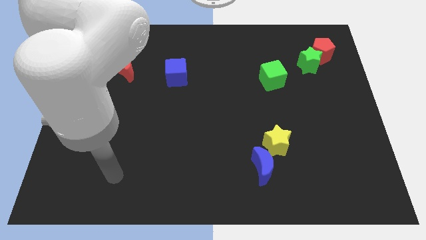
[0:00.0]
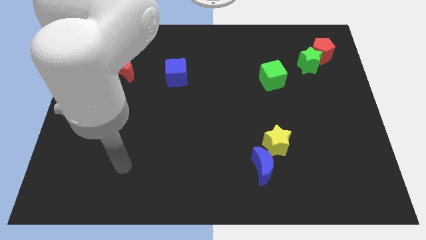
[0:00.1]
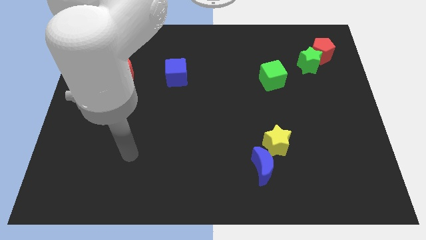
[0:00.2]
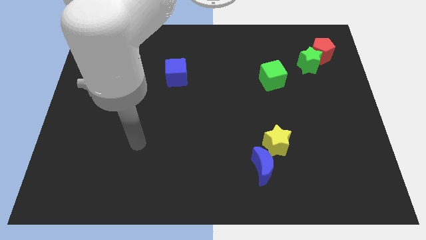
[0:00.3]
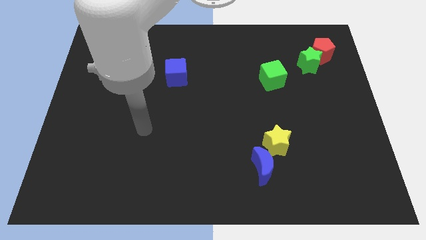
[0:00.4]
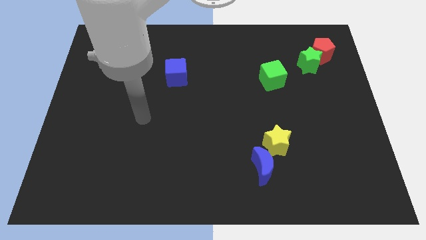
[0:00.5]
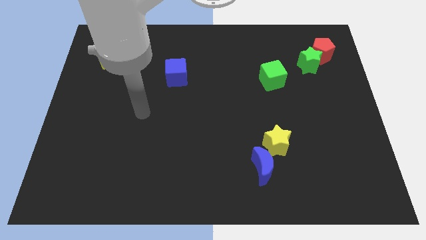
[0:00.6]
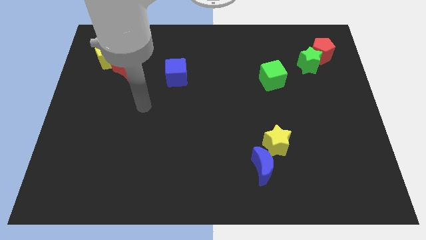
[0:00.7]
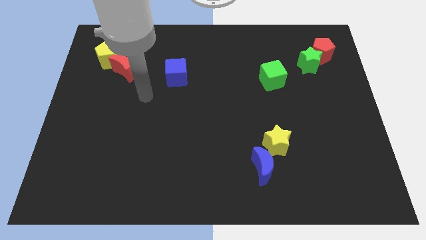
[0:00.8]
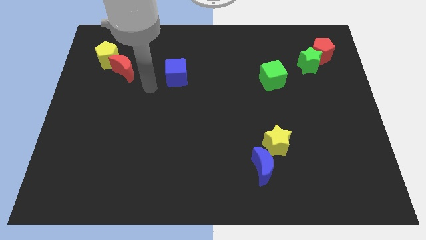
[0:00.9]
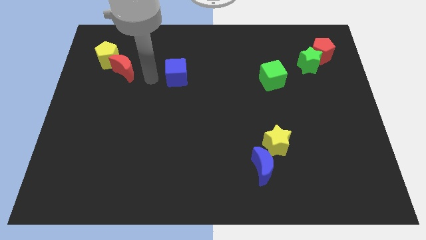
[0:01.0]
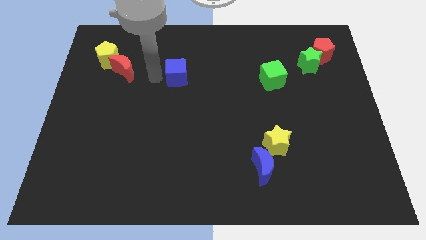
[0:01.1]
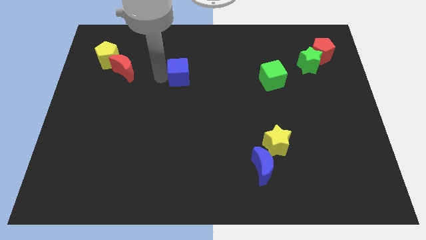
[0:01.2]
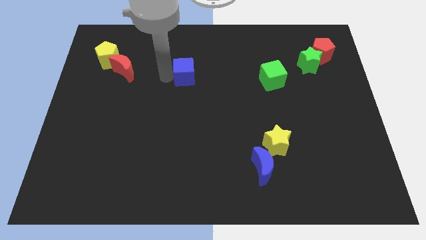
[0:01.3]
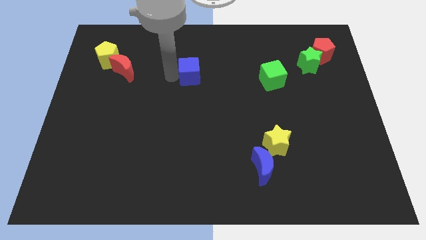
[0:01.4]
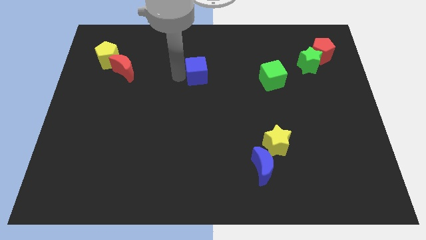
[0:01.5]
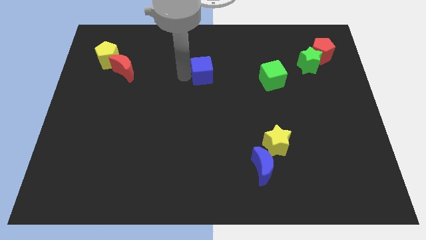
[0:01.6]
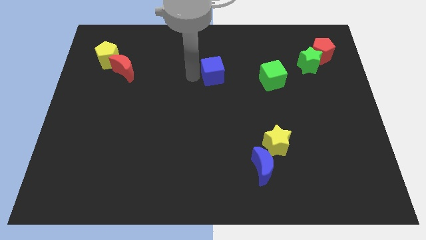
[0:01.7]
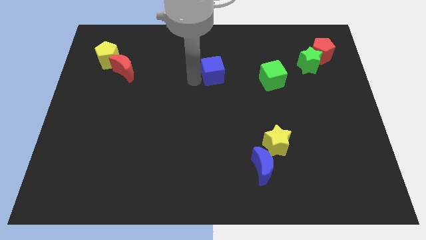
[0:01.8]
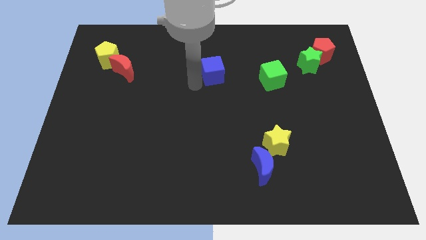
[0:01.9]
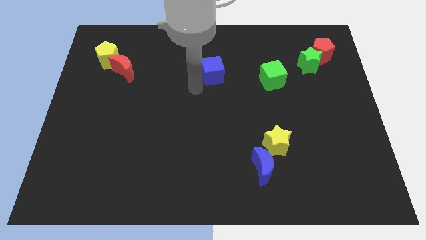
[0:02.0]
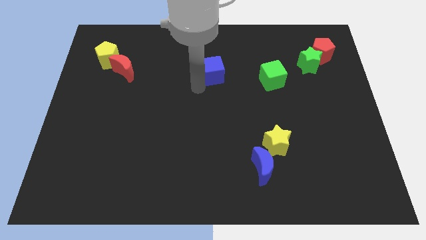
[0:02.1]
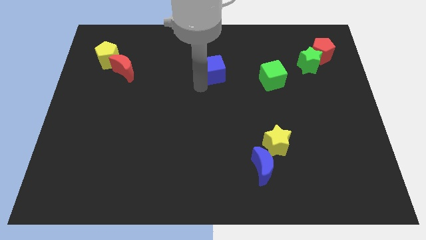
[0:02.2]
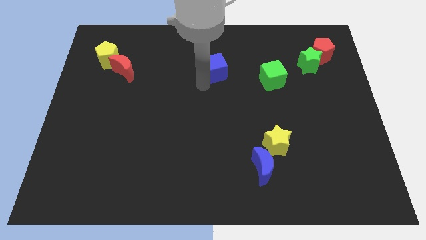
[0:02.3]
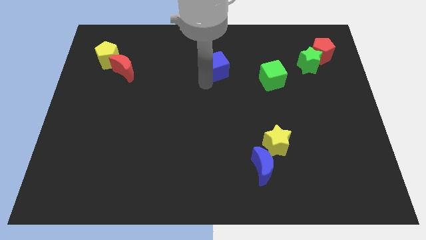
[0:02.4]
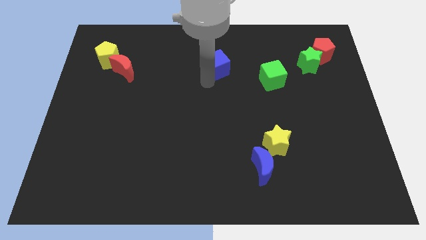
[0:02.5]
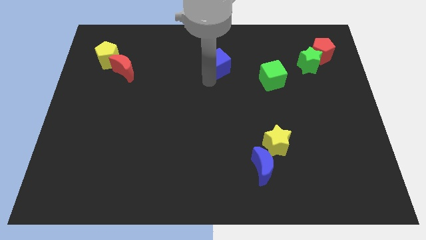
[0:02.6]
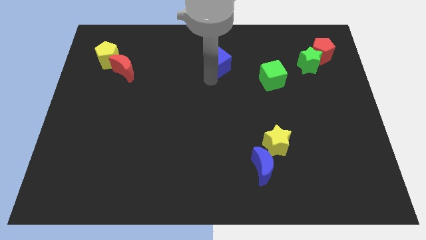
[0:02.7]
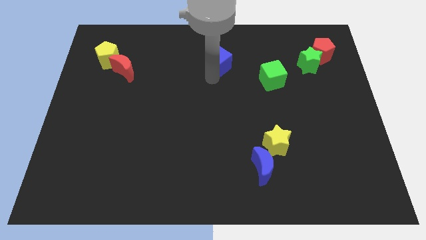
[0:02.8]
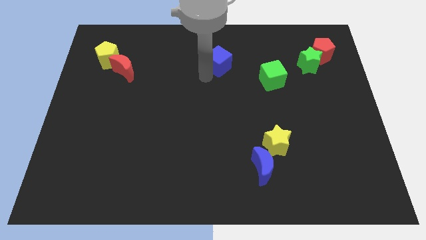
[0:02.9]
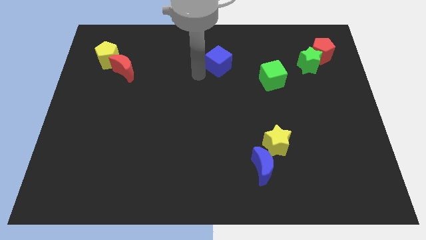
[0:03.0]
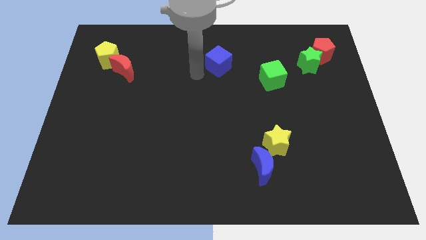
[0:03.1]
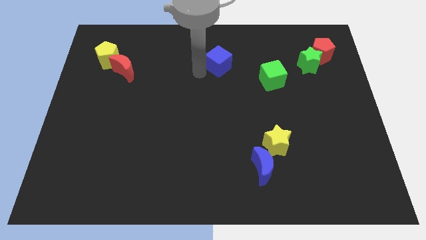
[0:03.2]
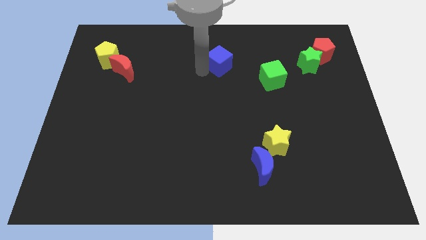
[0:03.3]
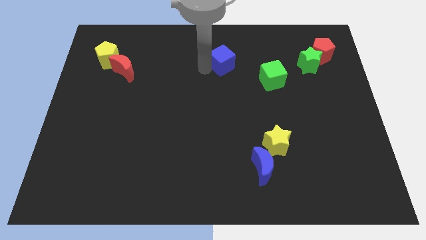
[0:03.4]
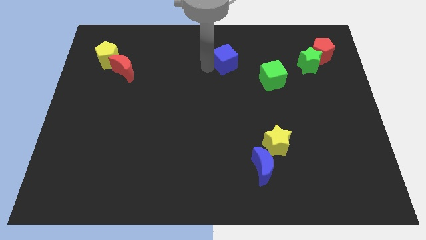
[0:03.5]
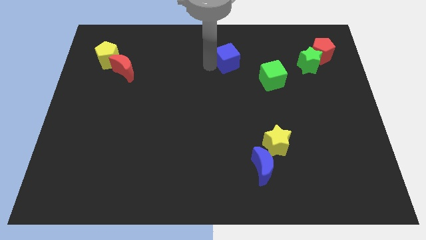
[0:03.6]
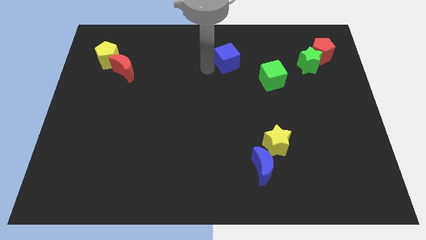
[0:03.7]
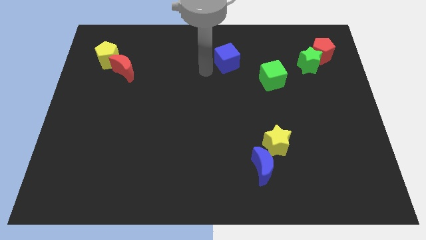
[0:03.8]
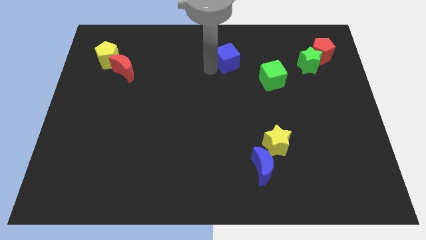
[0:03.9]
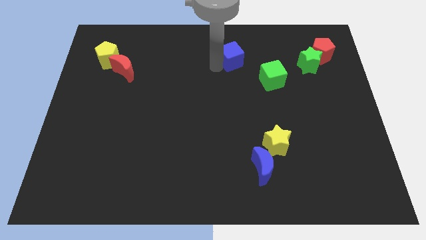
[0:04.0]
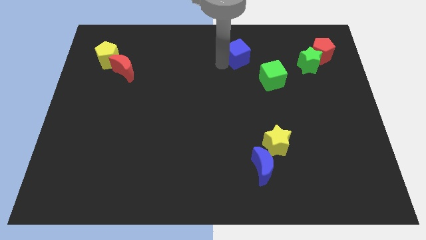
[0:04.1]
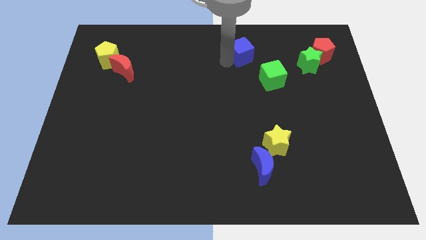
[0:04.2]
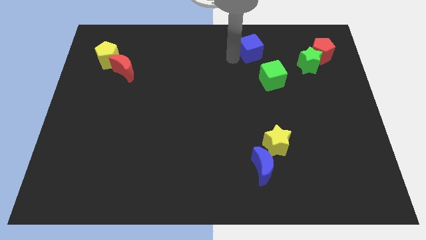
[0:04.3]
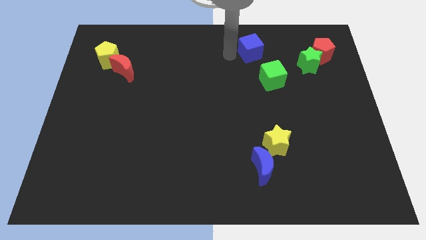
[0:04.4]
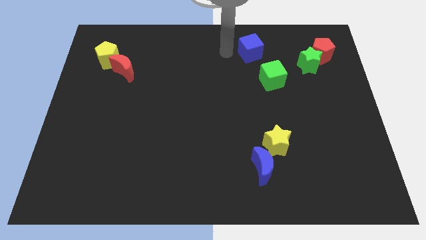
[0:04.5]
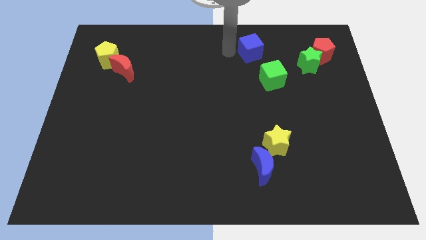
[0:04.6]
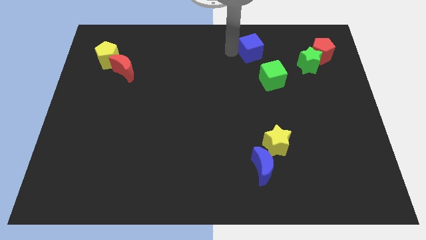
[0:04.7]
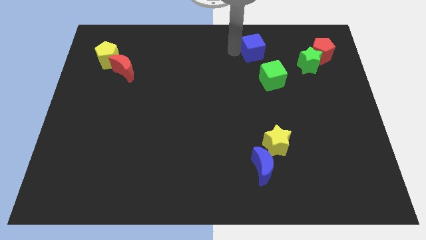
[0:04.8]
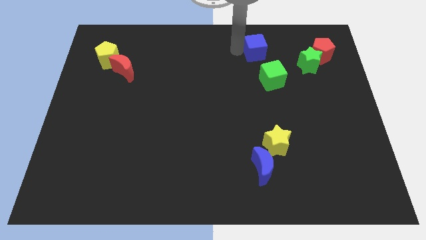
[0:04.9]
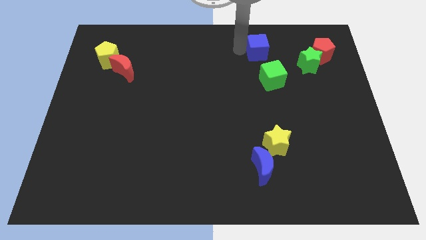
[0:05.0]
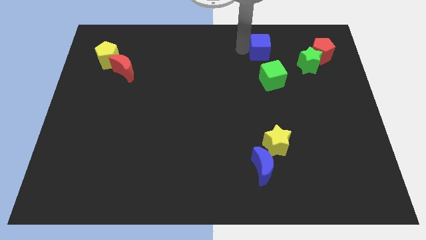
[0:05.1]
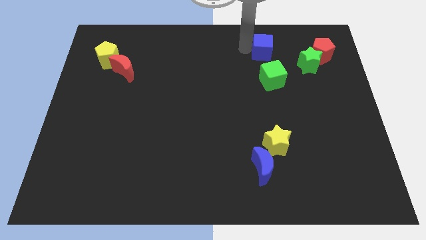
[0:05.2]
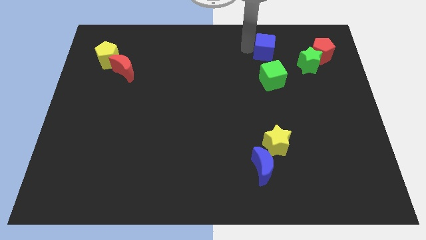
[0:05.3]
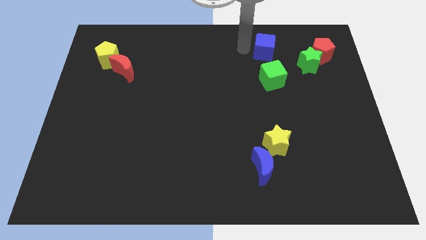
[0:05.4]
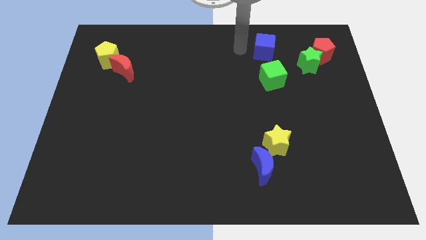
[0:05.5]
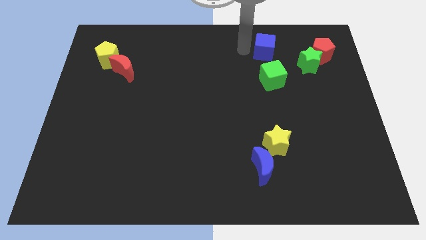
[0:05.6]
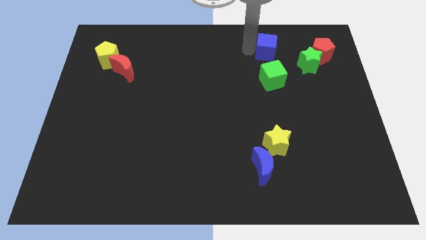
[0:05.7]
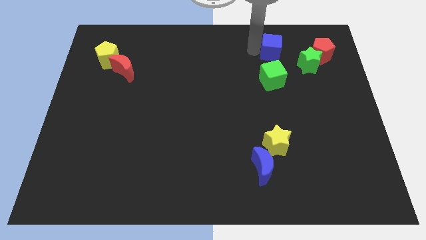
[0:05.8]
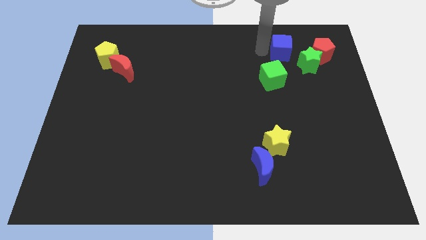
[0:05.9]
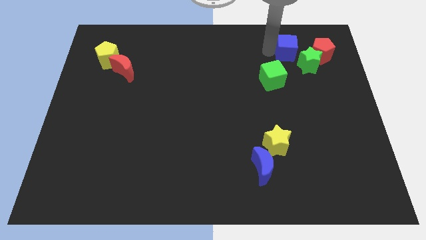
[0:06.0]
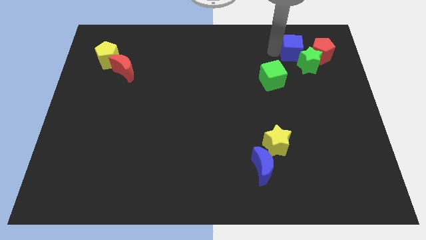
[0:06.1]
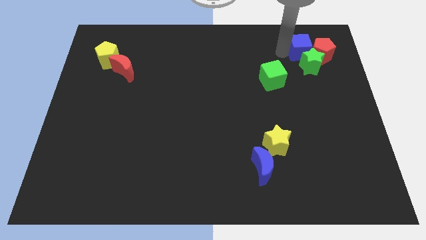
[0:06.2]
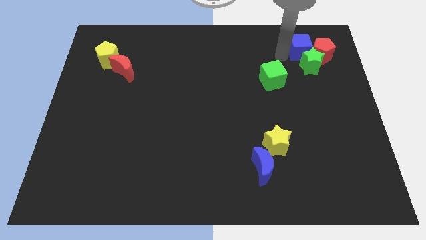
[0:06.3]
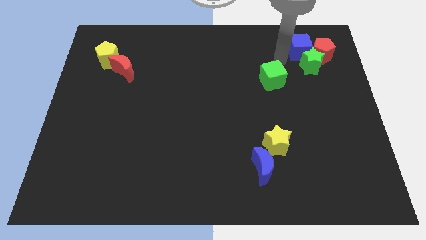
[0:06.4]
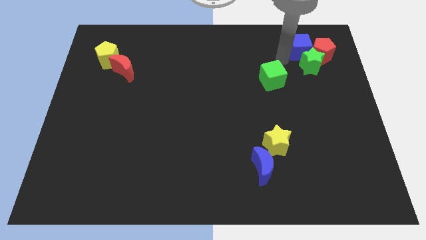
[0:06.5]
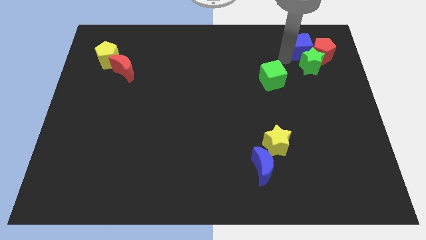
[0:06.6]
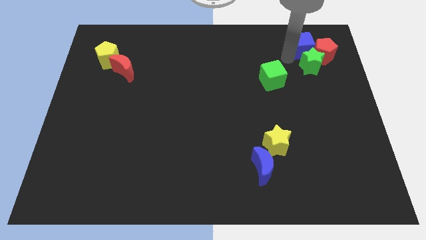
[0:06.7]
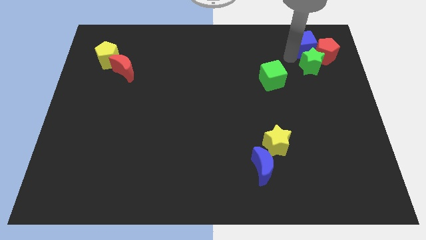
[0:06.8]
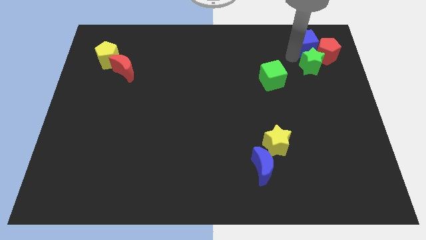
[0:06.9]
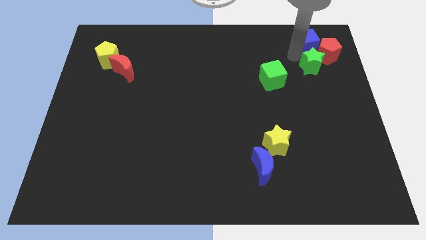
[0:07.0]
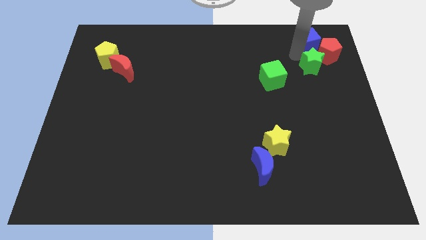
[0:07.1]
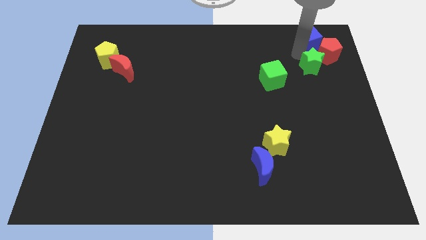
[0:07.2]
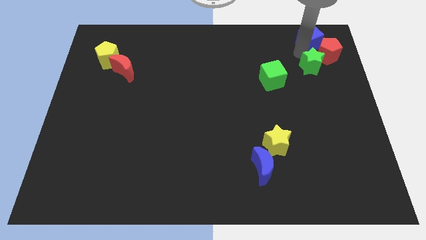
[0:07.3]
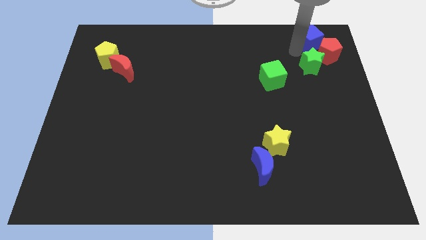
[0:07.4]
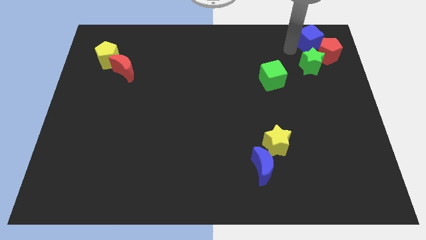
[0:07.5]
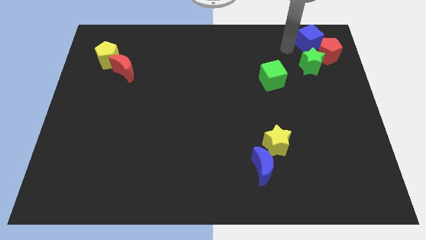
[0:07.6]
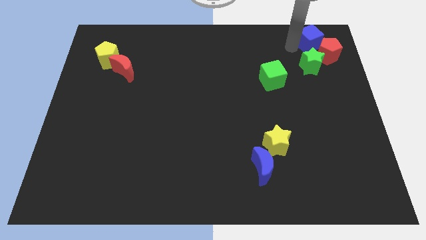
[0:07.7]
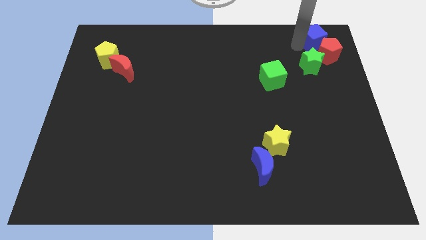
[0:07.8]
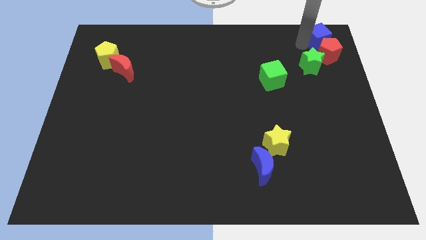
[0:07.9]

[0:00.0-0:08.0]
move the blue cube to the top right of the board
